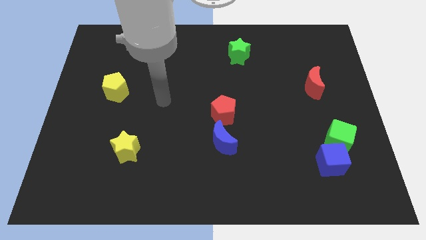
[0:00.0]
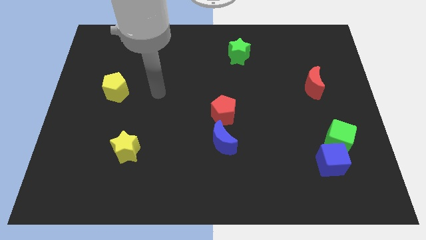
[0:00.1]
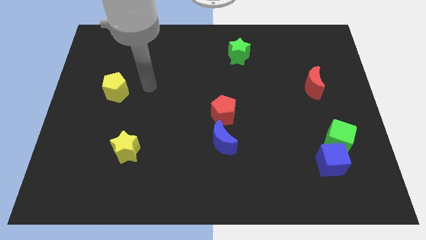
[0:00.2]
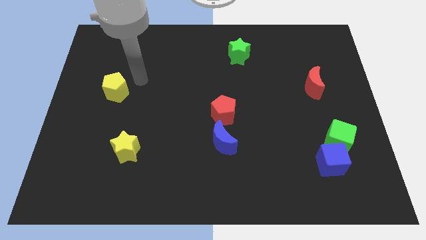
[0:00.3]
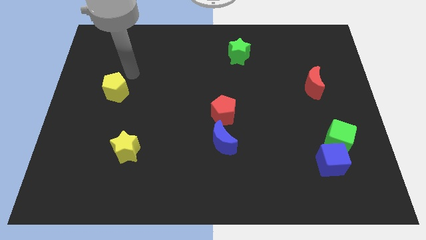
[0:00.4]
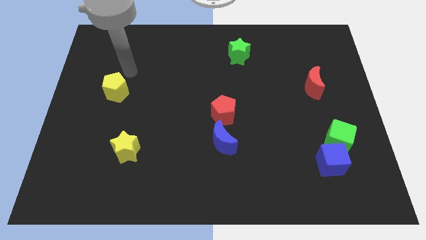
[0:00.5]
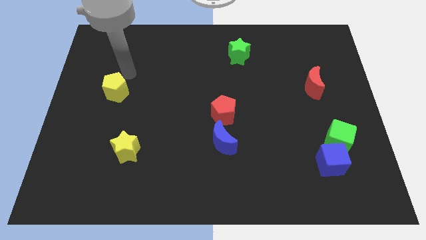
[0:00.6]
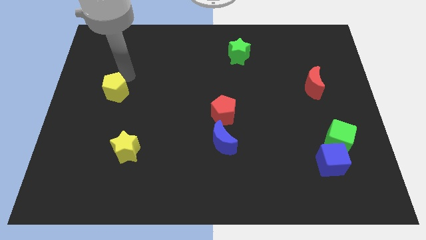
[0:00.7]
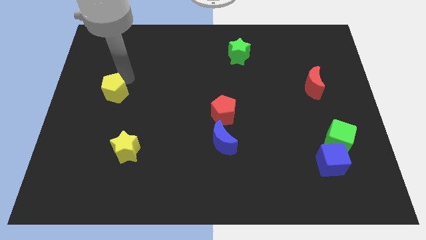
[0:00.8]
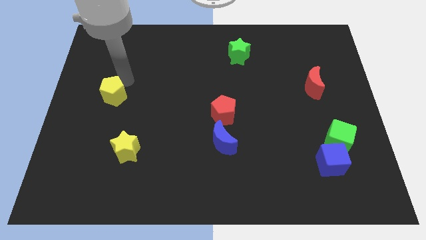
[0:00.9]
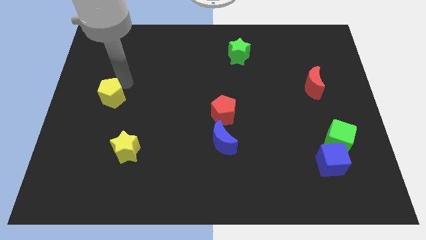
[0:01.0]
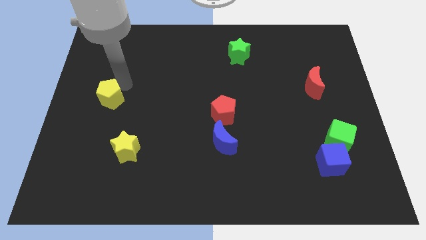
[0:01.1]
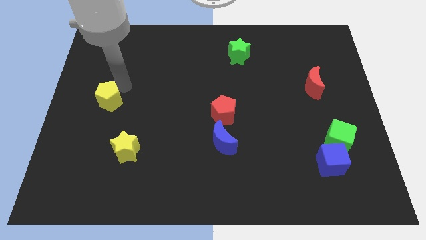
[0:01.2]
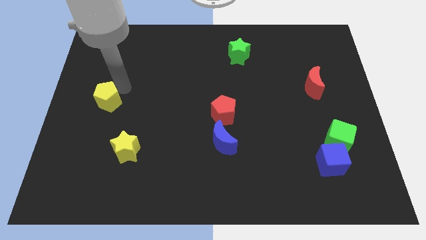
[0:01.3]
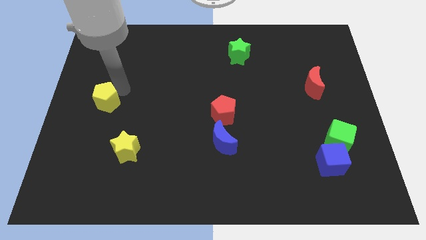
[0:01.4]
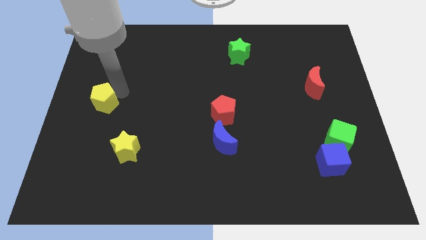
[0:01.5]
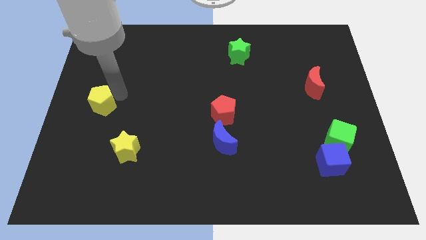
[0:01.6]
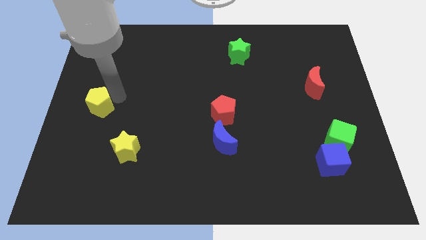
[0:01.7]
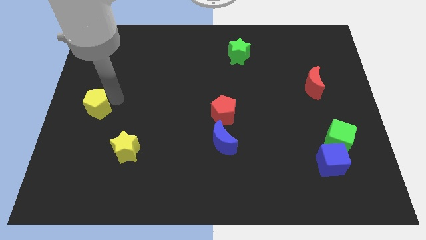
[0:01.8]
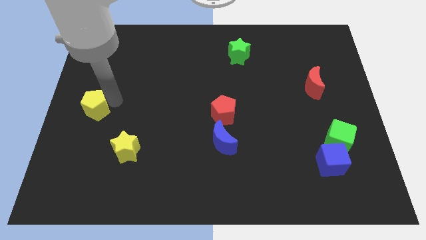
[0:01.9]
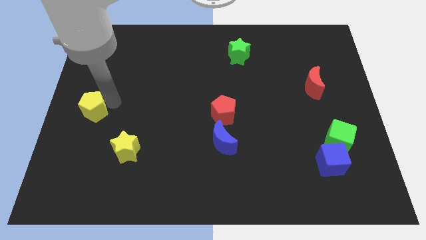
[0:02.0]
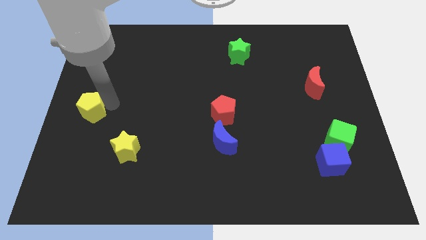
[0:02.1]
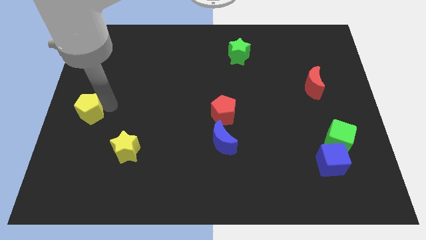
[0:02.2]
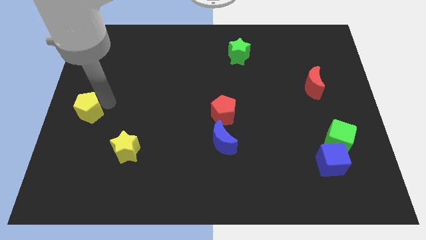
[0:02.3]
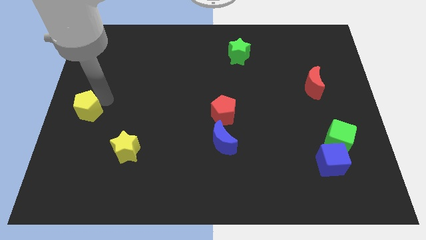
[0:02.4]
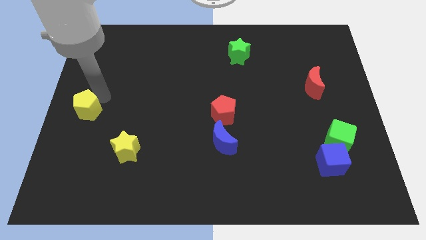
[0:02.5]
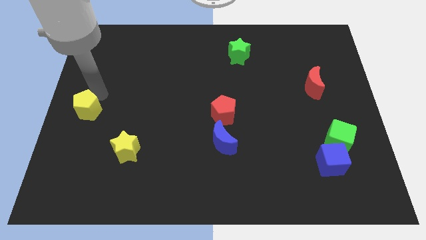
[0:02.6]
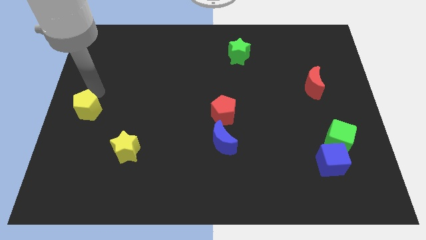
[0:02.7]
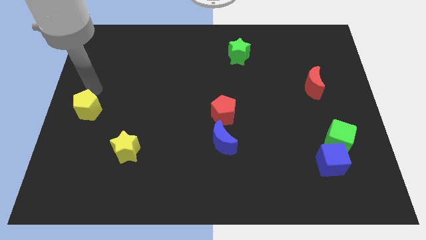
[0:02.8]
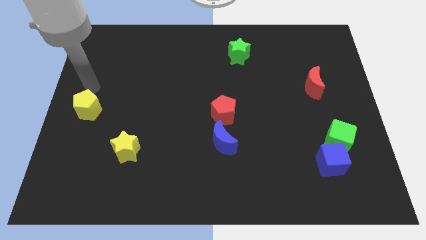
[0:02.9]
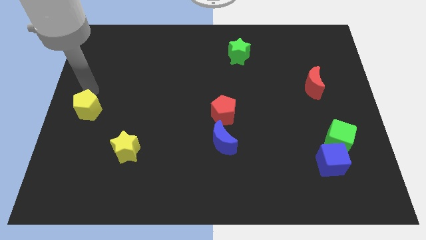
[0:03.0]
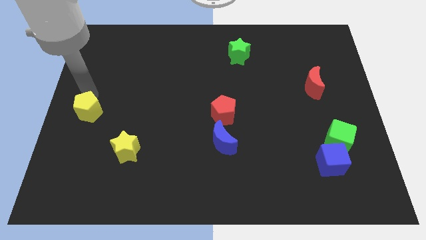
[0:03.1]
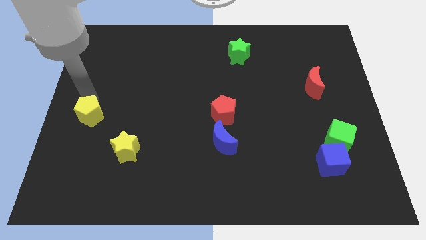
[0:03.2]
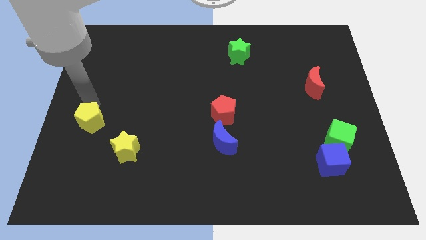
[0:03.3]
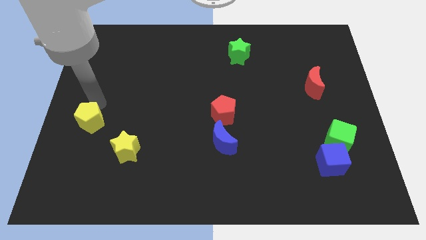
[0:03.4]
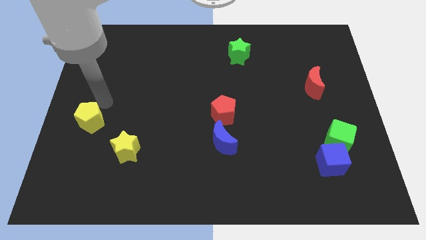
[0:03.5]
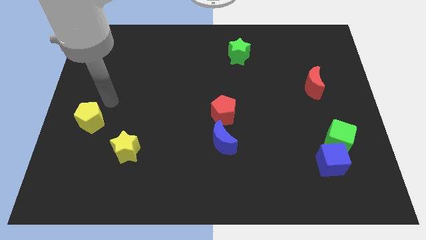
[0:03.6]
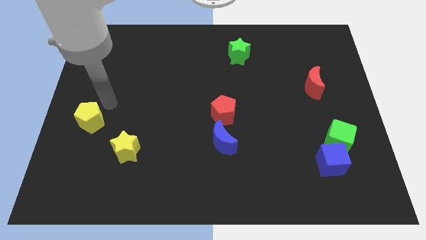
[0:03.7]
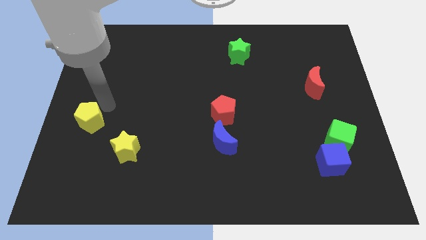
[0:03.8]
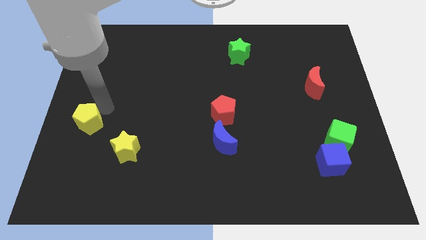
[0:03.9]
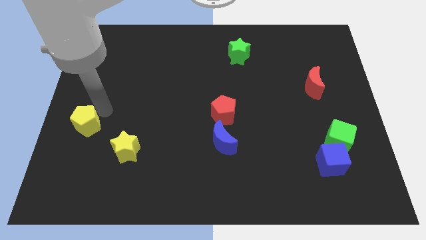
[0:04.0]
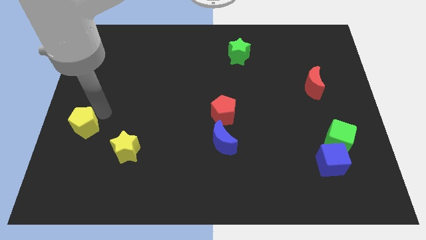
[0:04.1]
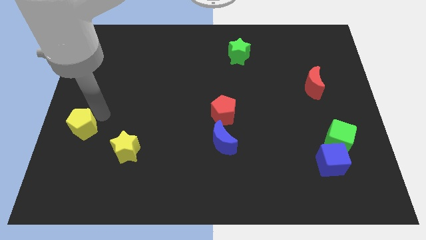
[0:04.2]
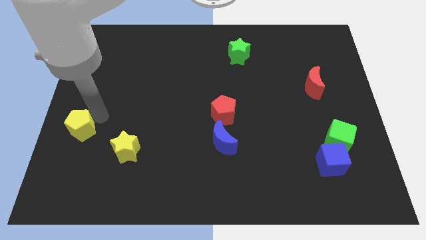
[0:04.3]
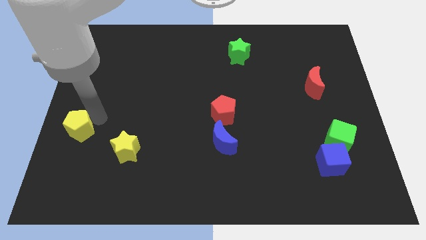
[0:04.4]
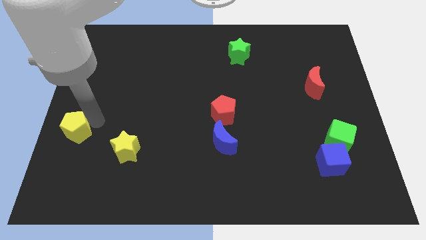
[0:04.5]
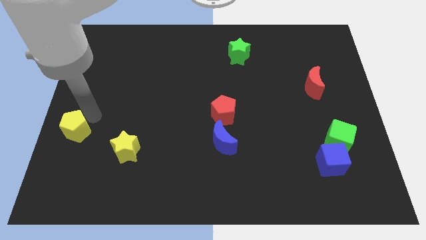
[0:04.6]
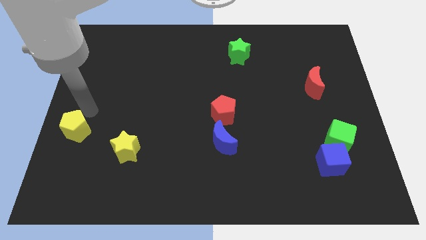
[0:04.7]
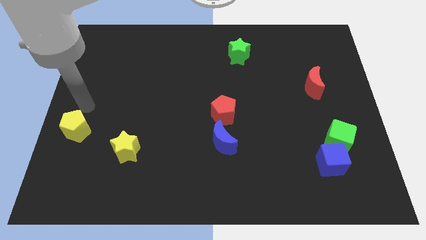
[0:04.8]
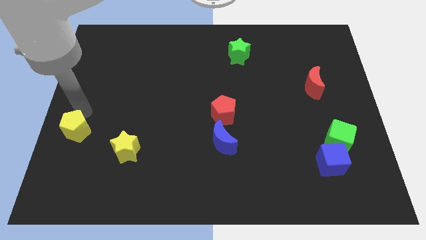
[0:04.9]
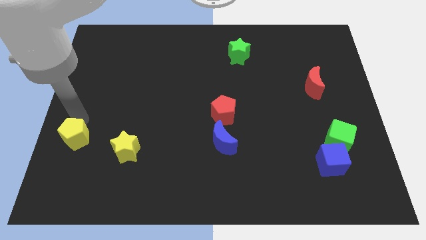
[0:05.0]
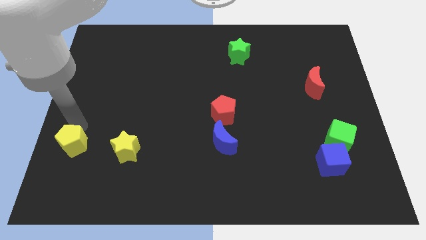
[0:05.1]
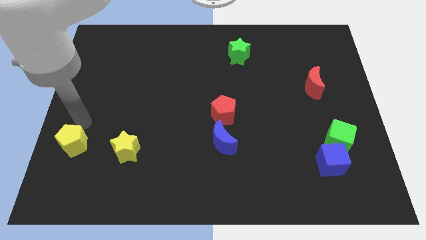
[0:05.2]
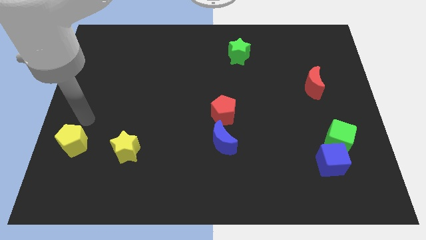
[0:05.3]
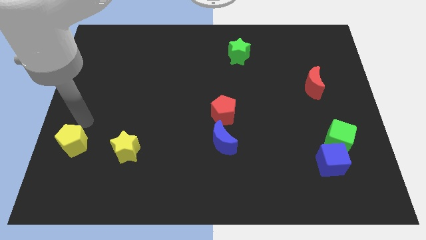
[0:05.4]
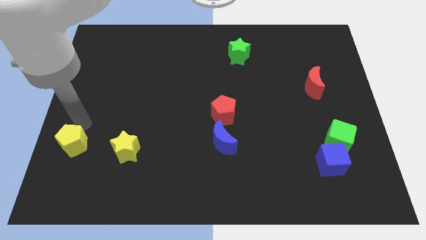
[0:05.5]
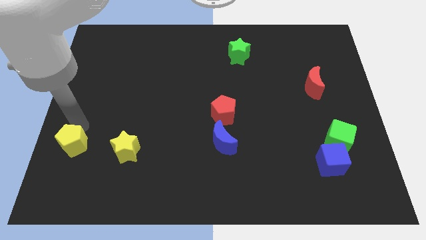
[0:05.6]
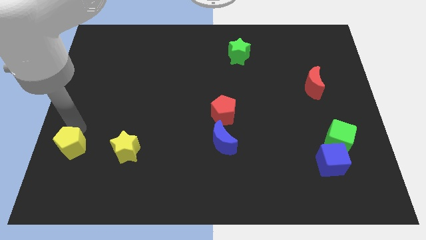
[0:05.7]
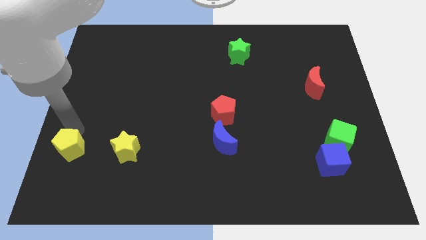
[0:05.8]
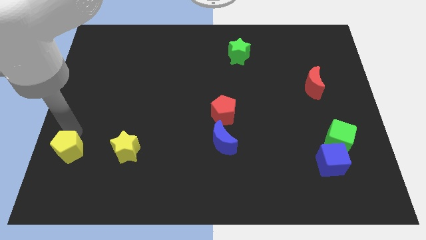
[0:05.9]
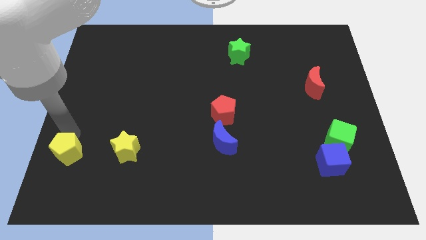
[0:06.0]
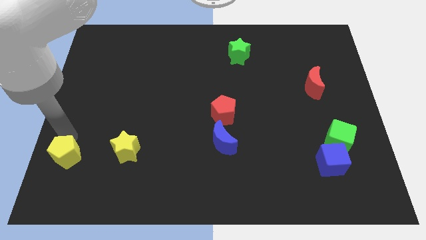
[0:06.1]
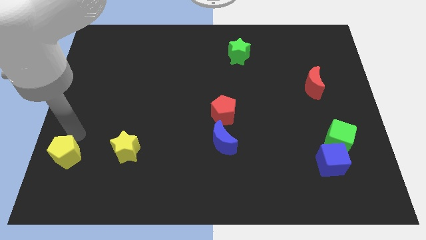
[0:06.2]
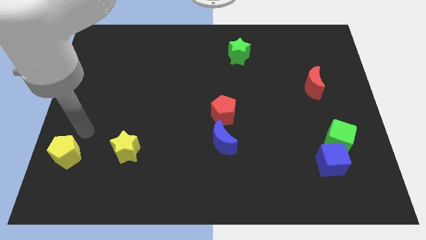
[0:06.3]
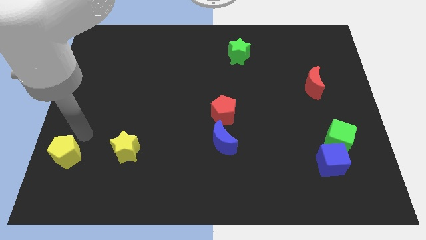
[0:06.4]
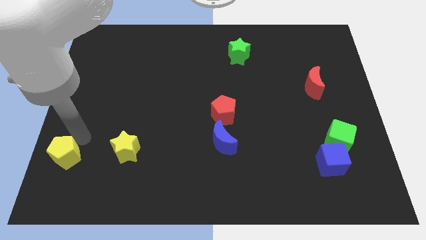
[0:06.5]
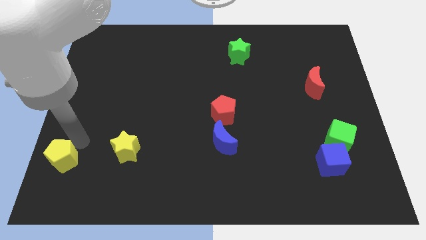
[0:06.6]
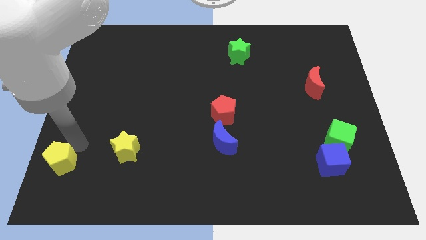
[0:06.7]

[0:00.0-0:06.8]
put the yellow pentagon to the bottom left of the board
